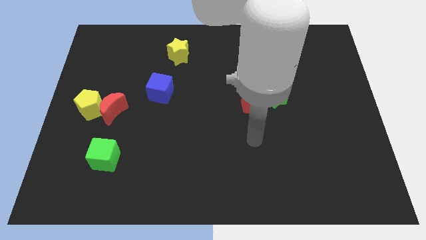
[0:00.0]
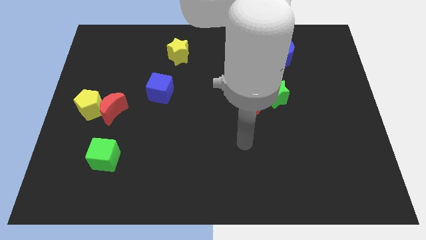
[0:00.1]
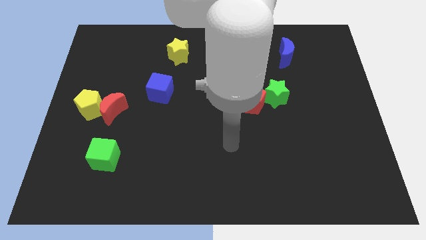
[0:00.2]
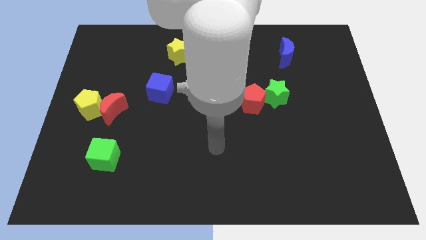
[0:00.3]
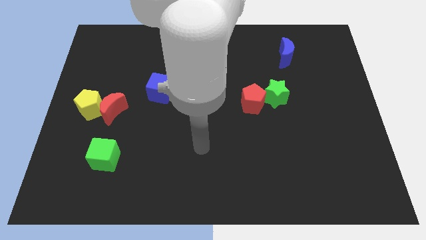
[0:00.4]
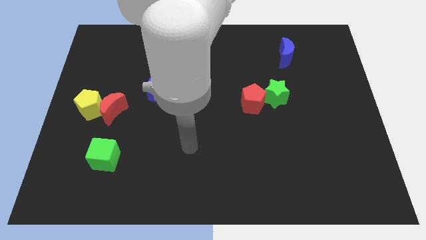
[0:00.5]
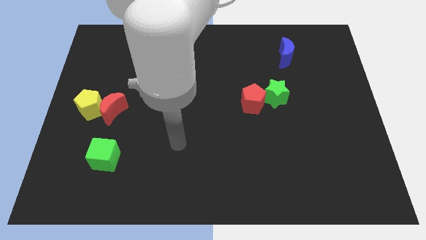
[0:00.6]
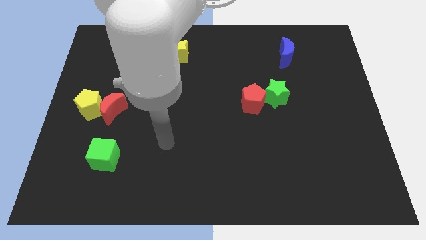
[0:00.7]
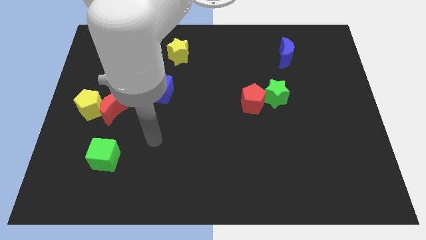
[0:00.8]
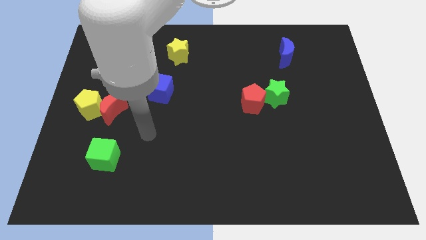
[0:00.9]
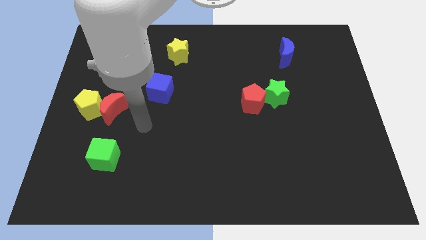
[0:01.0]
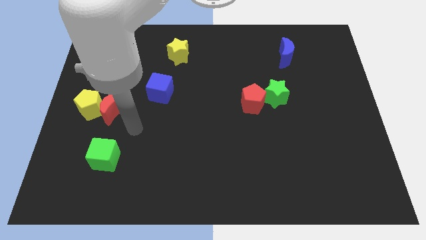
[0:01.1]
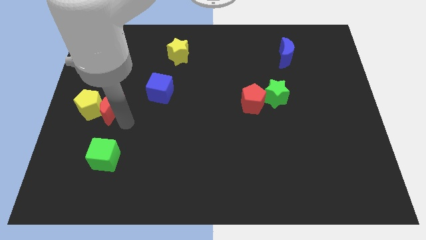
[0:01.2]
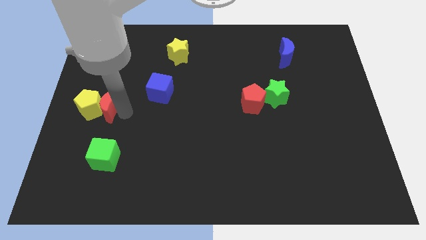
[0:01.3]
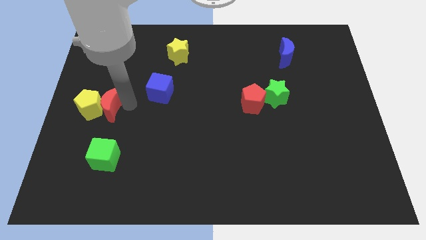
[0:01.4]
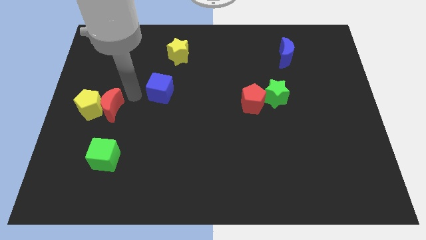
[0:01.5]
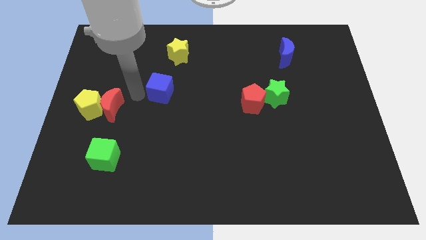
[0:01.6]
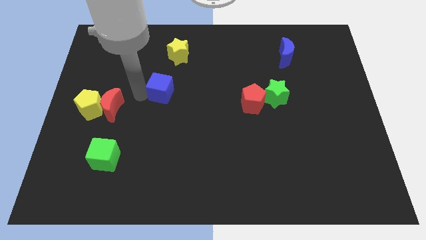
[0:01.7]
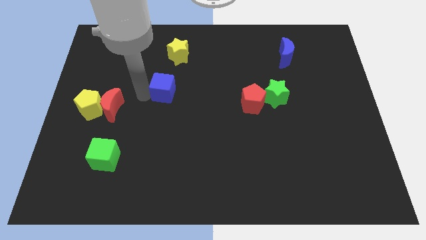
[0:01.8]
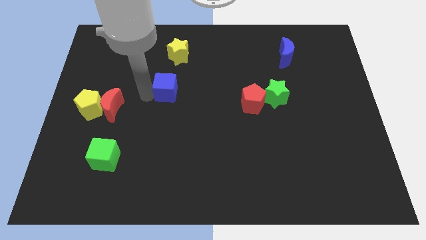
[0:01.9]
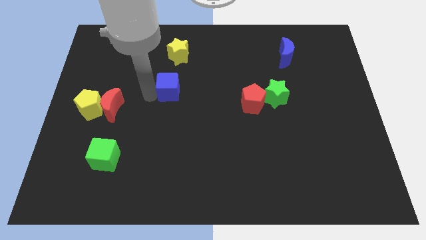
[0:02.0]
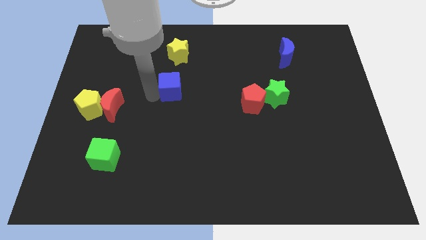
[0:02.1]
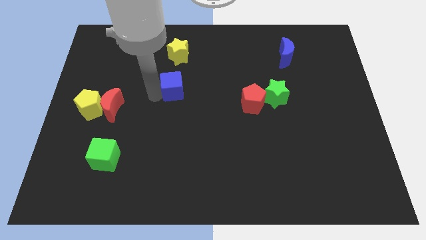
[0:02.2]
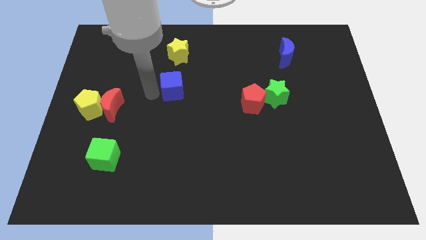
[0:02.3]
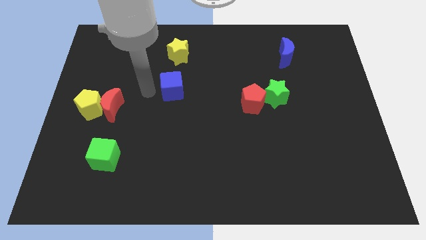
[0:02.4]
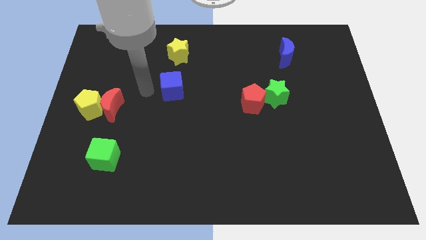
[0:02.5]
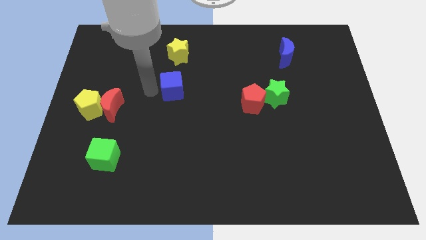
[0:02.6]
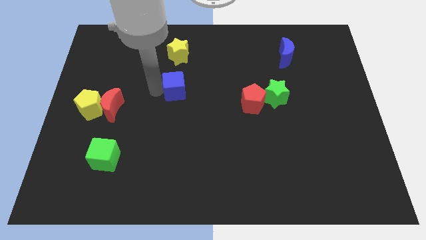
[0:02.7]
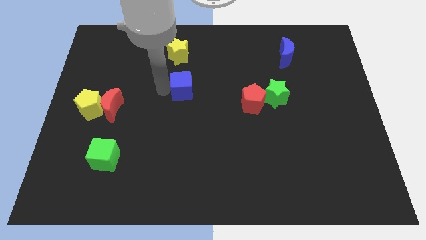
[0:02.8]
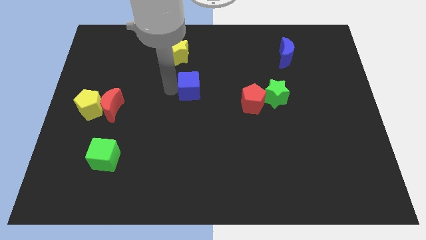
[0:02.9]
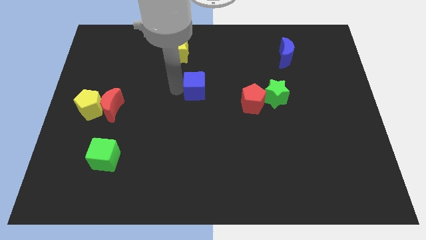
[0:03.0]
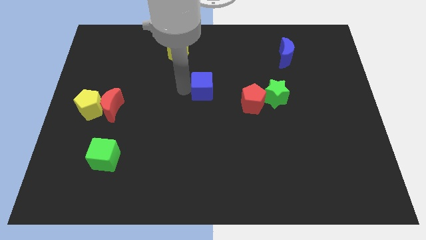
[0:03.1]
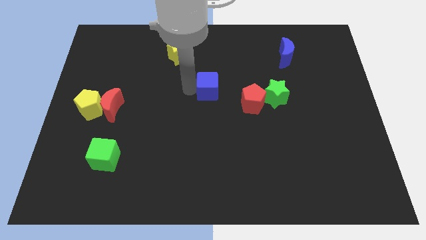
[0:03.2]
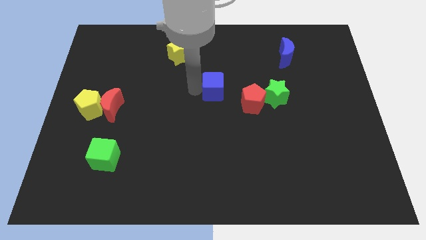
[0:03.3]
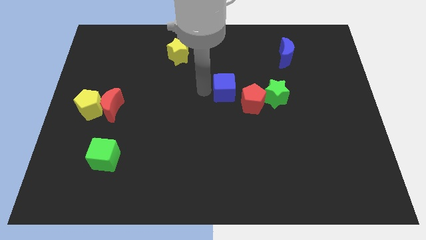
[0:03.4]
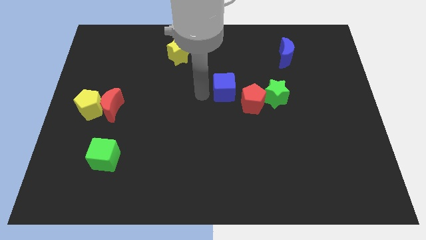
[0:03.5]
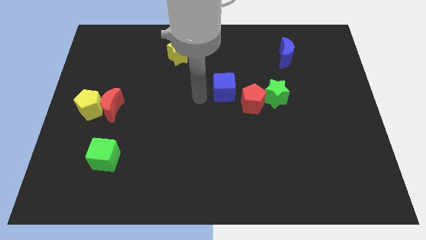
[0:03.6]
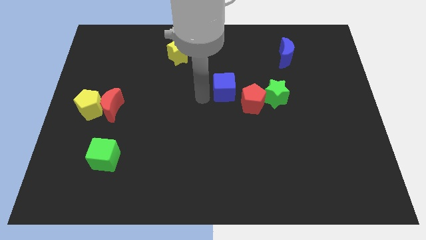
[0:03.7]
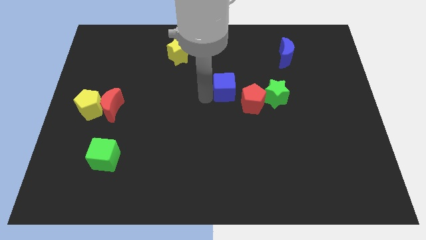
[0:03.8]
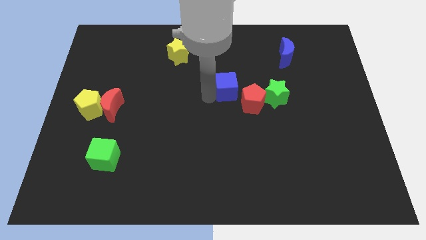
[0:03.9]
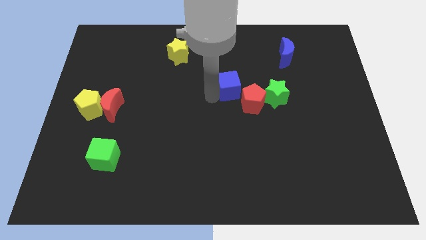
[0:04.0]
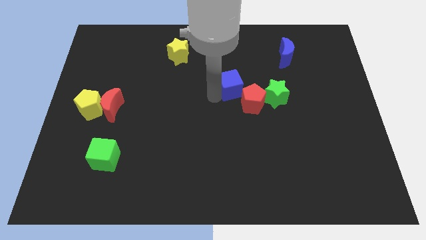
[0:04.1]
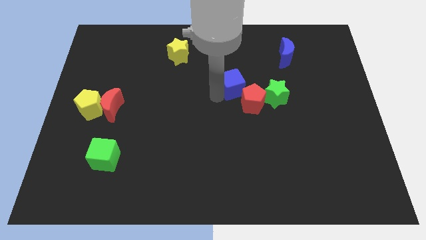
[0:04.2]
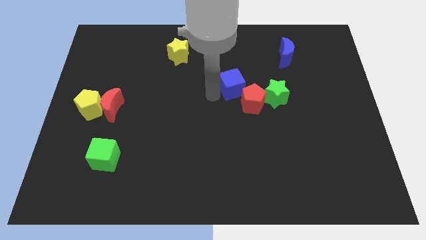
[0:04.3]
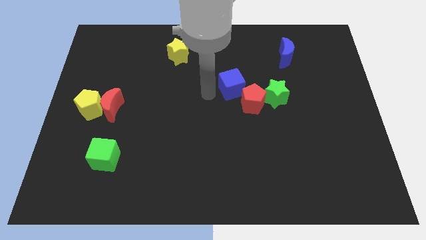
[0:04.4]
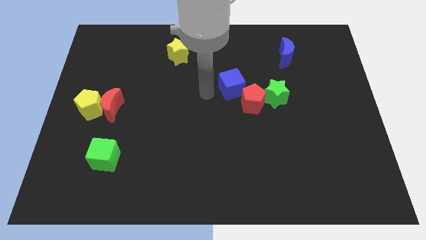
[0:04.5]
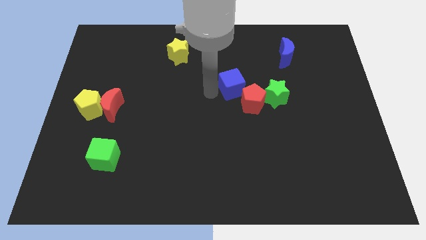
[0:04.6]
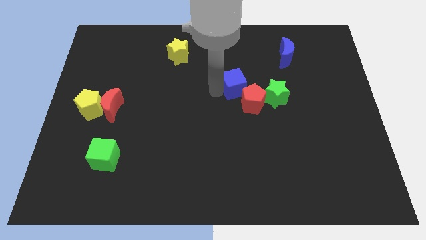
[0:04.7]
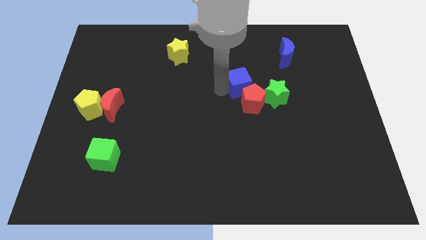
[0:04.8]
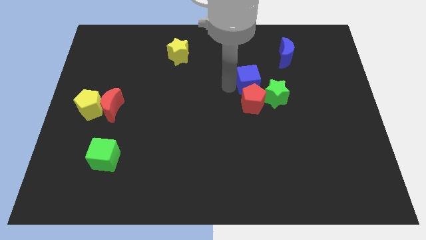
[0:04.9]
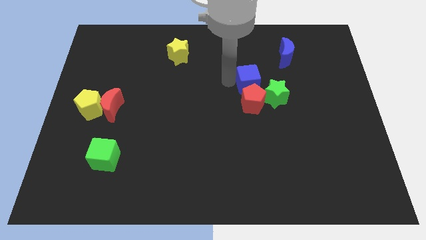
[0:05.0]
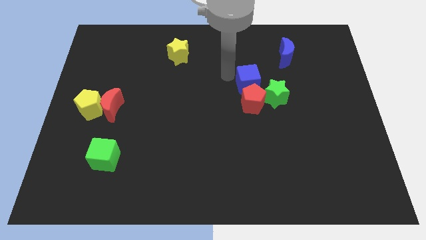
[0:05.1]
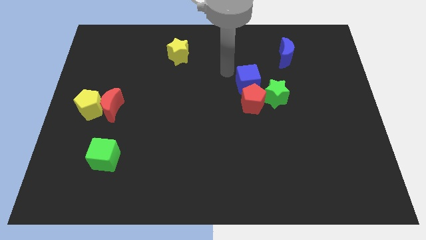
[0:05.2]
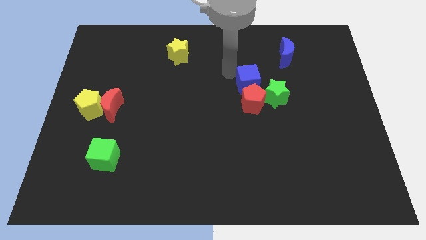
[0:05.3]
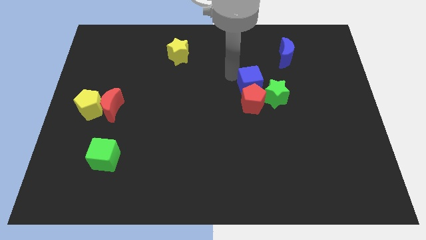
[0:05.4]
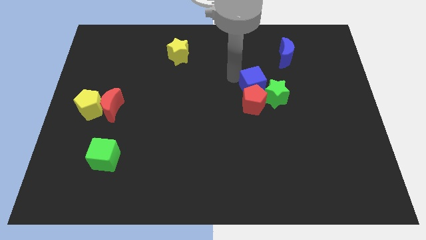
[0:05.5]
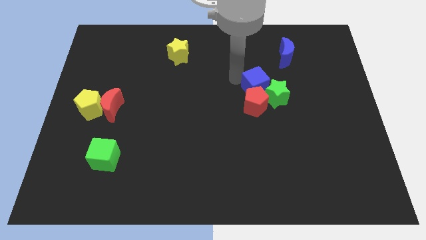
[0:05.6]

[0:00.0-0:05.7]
slide the blue cube to the green star

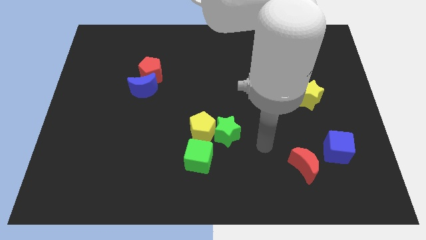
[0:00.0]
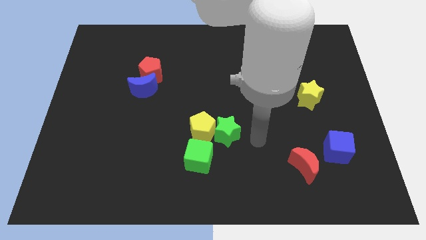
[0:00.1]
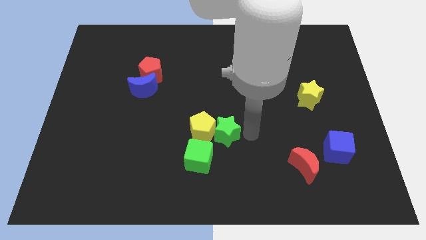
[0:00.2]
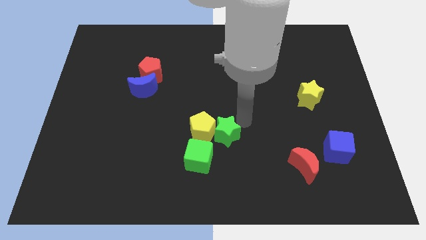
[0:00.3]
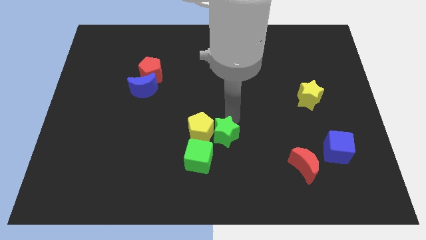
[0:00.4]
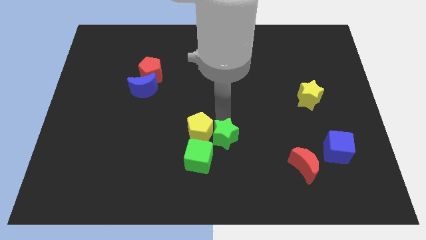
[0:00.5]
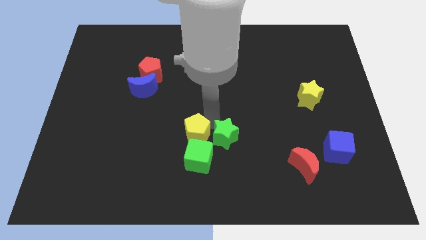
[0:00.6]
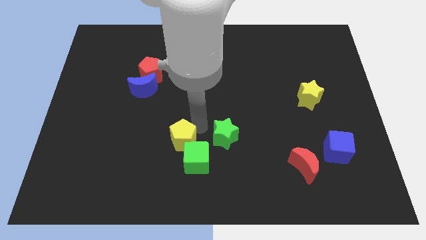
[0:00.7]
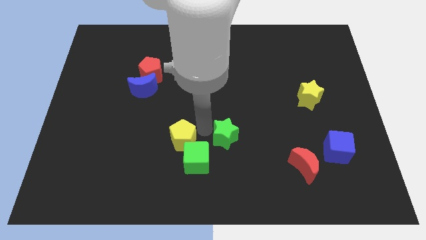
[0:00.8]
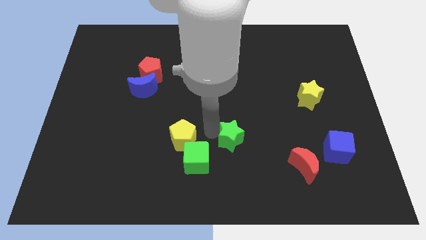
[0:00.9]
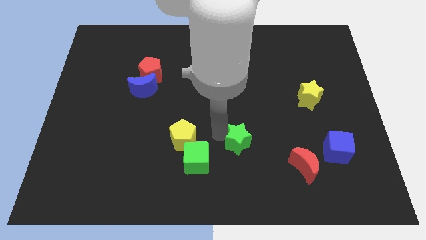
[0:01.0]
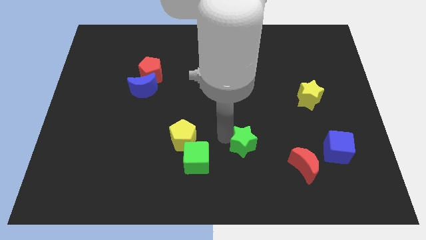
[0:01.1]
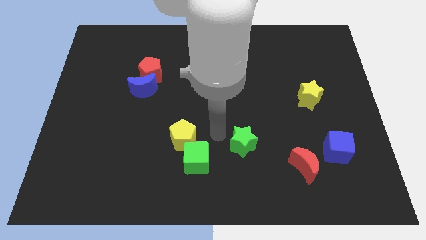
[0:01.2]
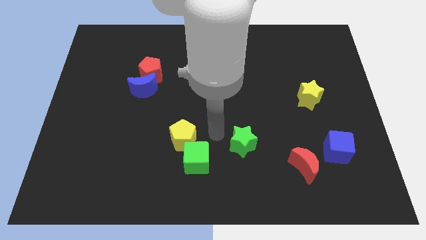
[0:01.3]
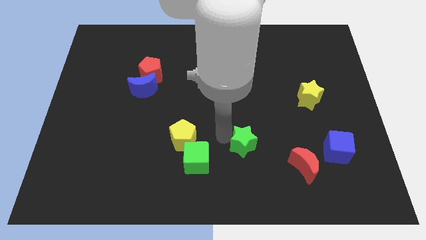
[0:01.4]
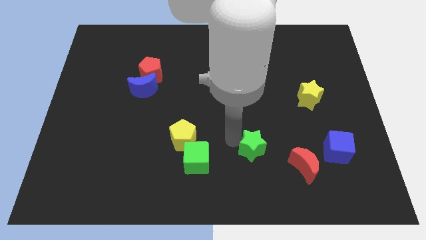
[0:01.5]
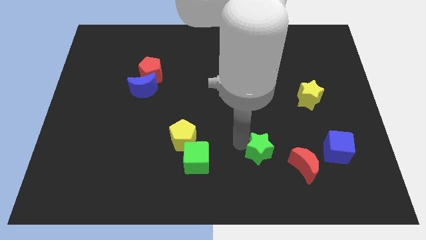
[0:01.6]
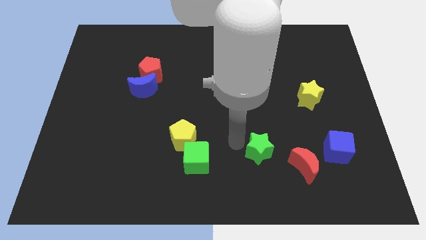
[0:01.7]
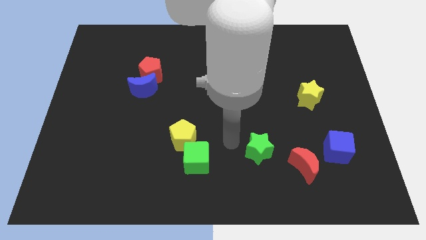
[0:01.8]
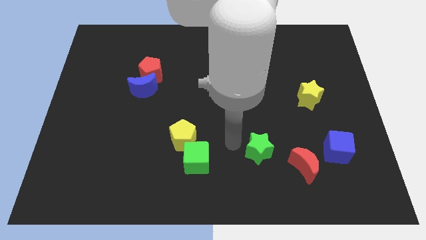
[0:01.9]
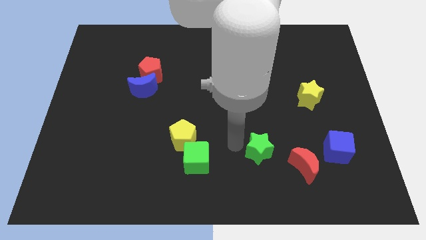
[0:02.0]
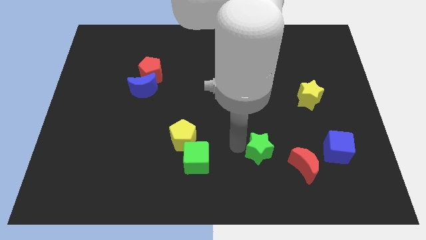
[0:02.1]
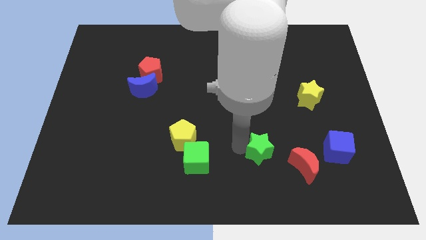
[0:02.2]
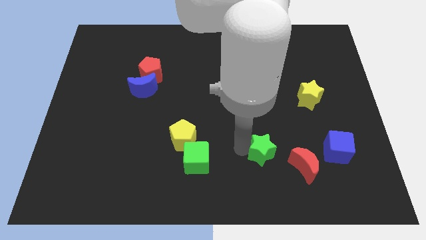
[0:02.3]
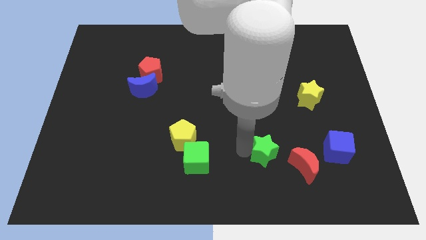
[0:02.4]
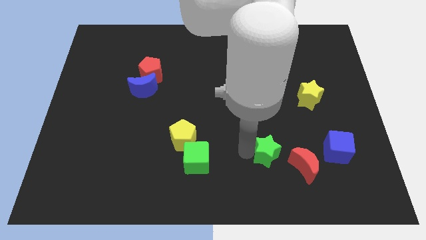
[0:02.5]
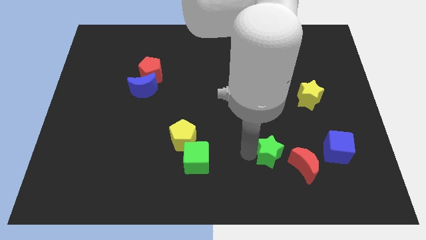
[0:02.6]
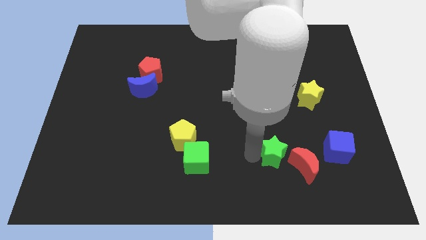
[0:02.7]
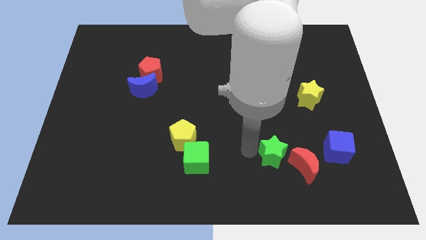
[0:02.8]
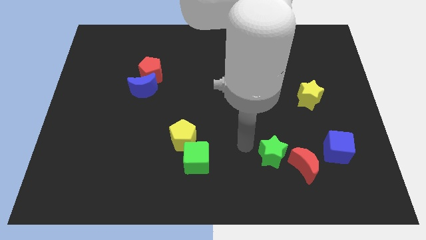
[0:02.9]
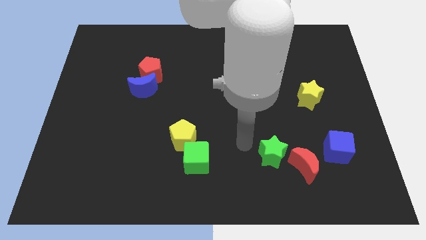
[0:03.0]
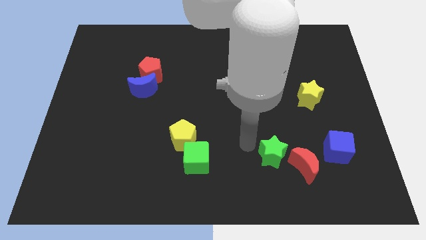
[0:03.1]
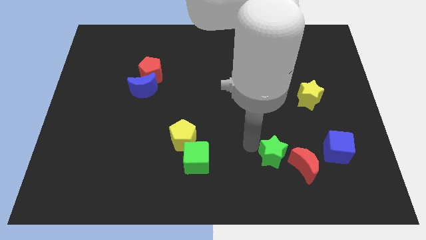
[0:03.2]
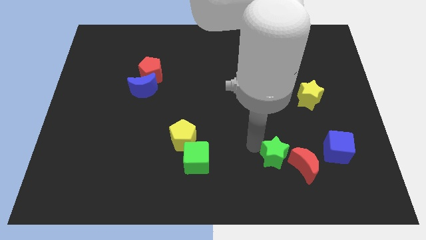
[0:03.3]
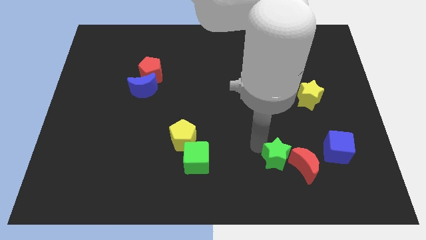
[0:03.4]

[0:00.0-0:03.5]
push the green star towards the red moon
